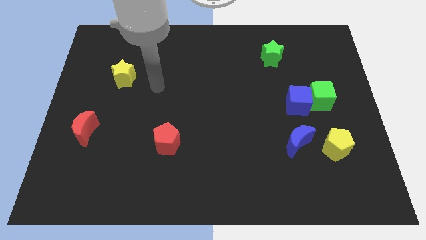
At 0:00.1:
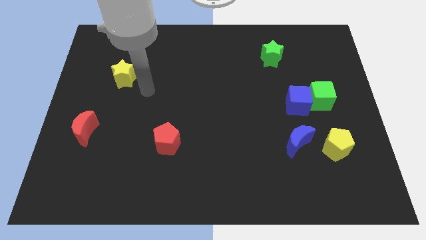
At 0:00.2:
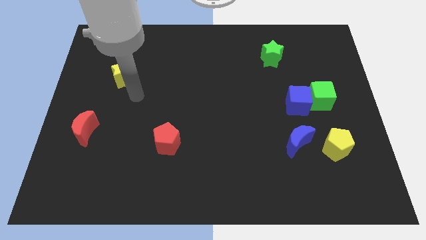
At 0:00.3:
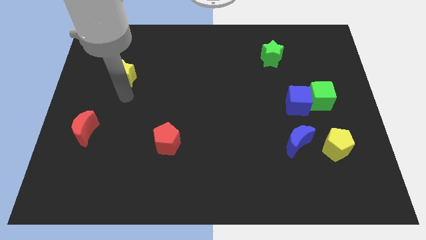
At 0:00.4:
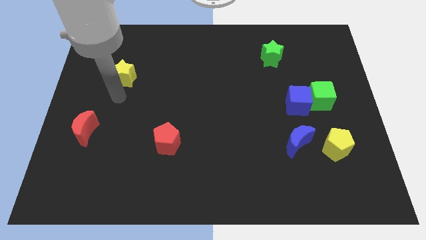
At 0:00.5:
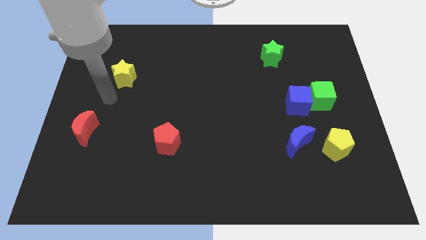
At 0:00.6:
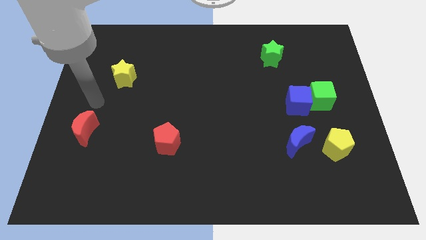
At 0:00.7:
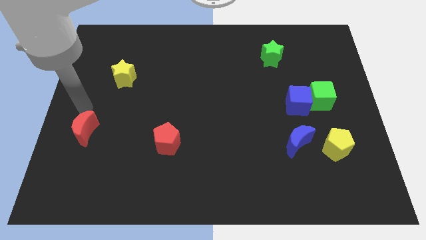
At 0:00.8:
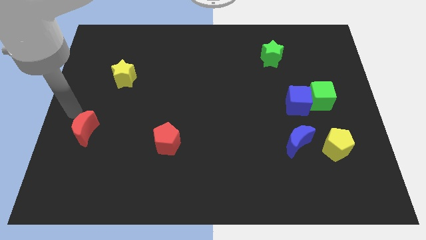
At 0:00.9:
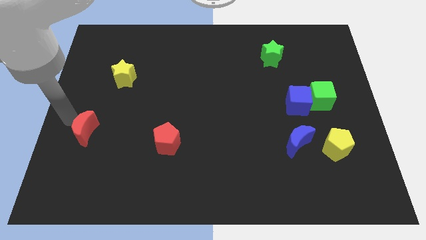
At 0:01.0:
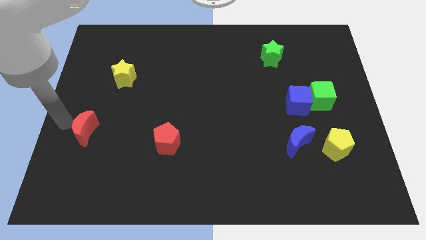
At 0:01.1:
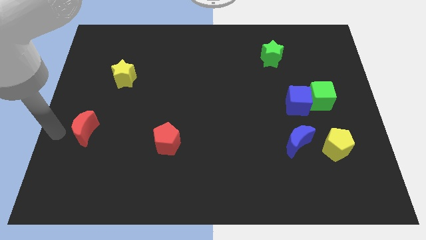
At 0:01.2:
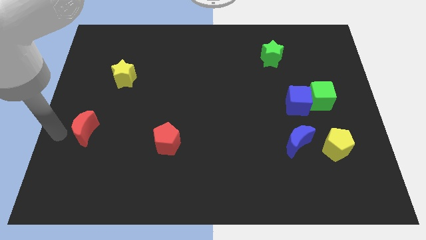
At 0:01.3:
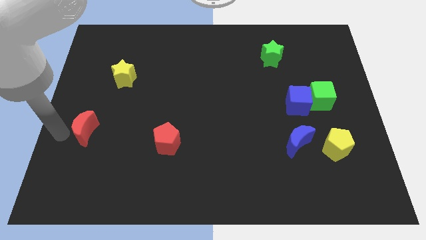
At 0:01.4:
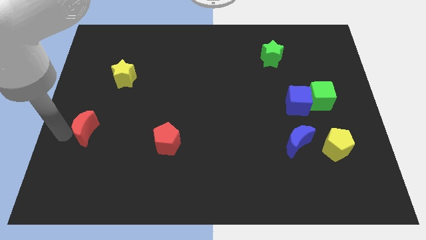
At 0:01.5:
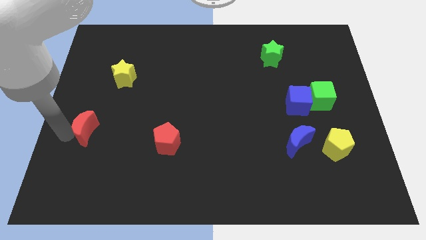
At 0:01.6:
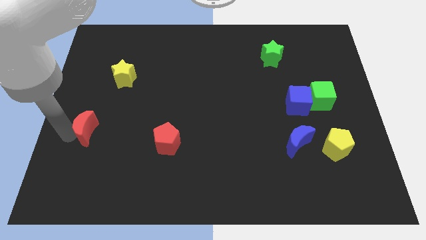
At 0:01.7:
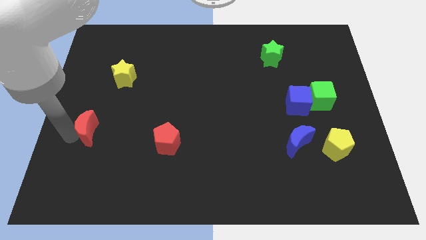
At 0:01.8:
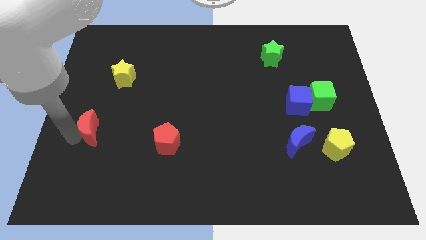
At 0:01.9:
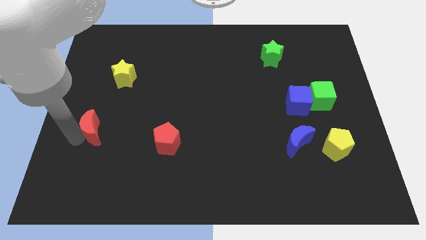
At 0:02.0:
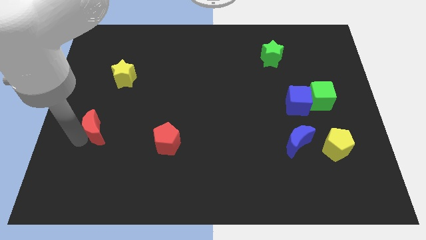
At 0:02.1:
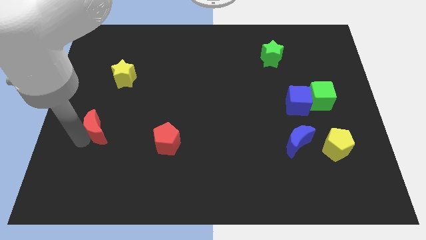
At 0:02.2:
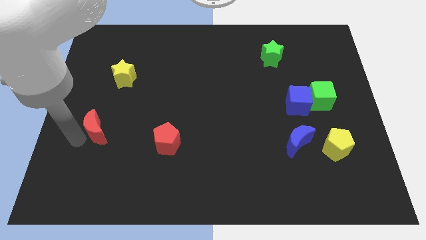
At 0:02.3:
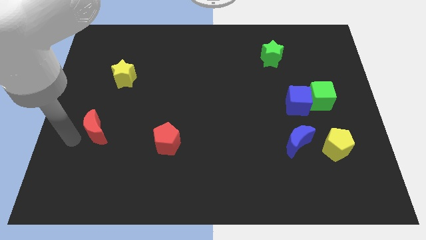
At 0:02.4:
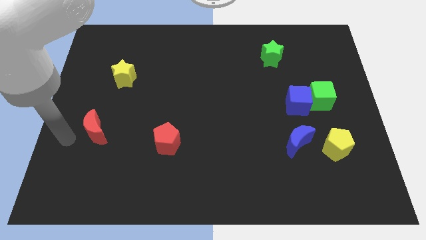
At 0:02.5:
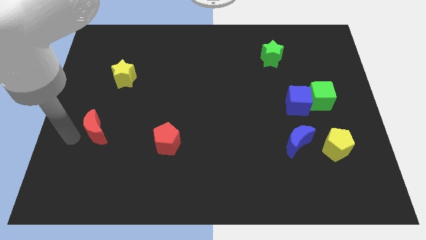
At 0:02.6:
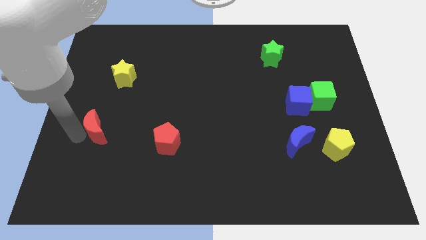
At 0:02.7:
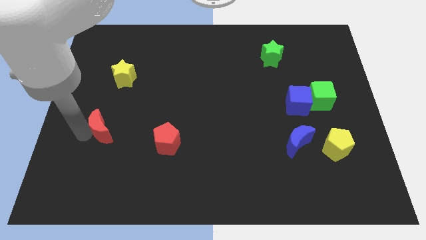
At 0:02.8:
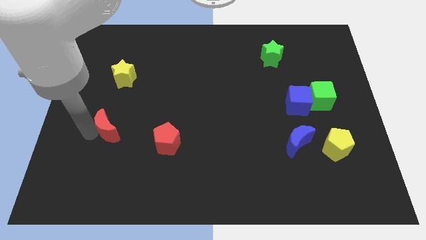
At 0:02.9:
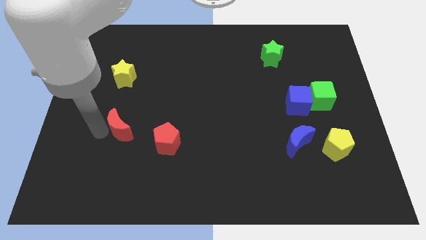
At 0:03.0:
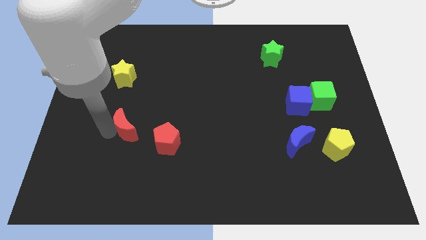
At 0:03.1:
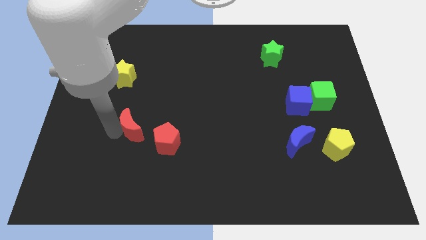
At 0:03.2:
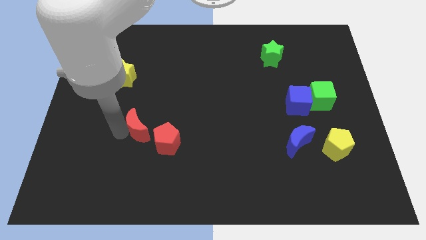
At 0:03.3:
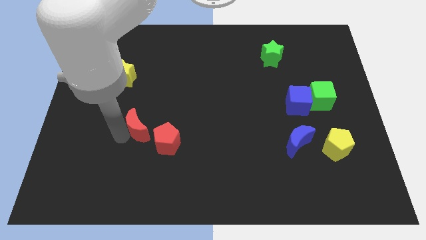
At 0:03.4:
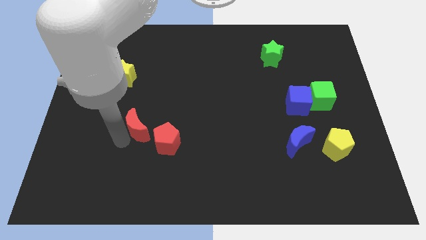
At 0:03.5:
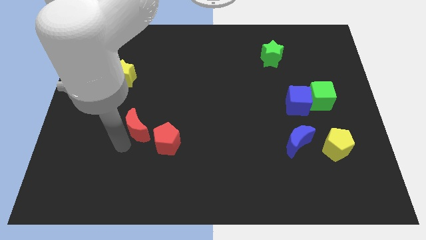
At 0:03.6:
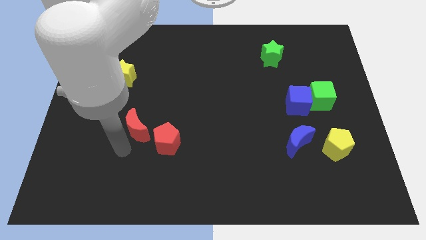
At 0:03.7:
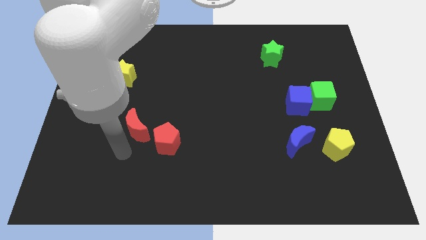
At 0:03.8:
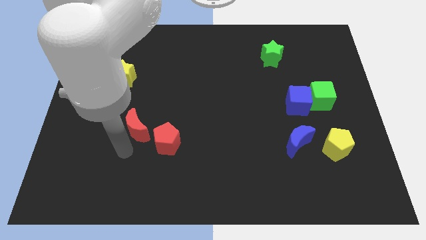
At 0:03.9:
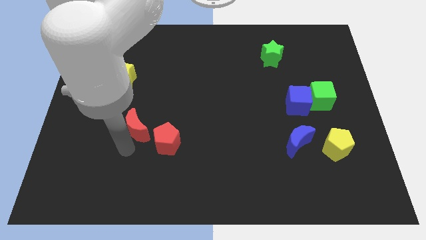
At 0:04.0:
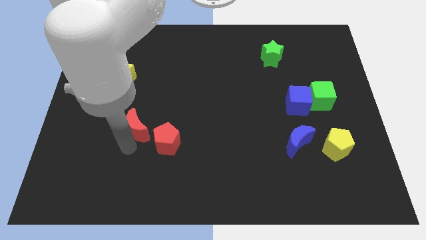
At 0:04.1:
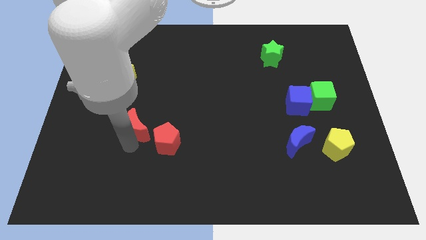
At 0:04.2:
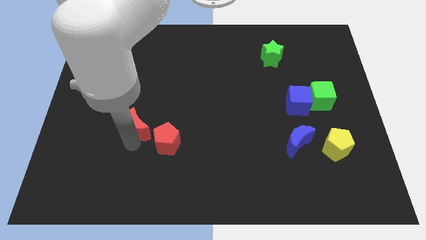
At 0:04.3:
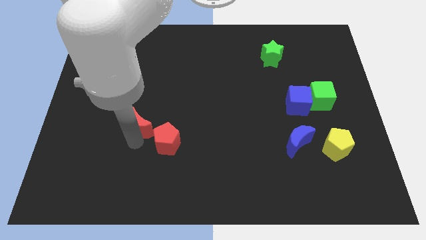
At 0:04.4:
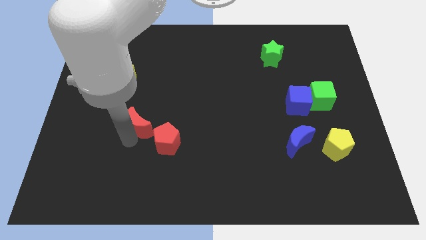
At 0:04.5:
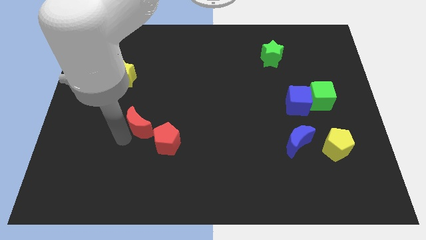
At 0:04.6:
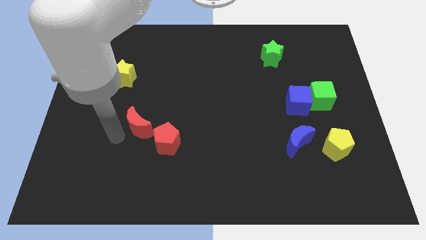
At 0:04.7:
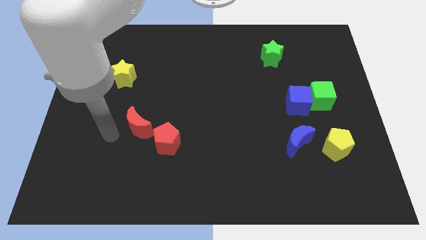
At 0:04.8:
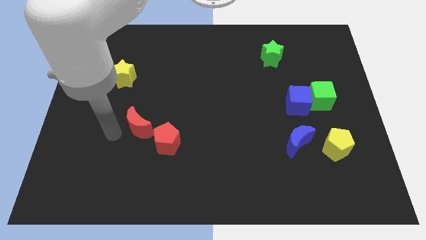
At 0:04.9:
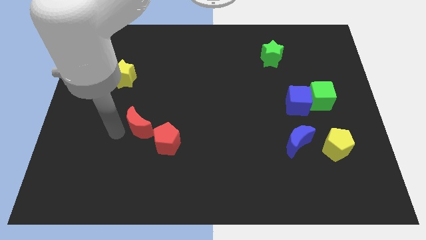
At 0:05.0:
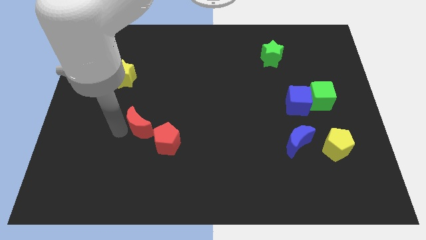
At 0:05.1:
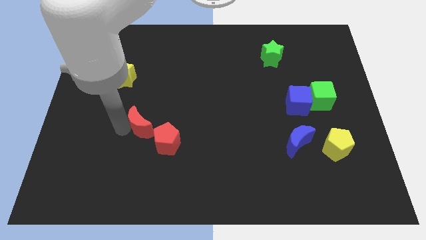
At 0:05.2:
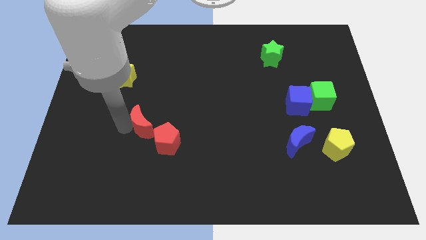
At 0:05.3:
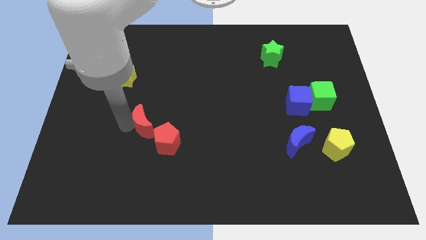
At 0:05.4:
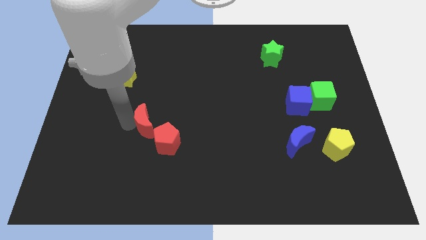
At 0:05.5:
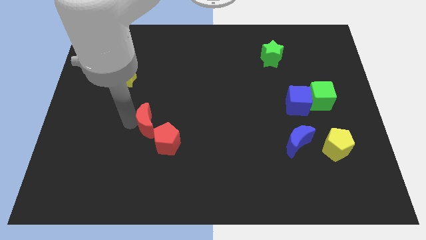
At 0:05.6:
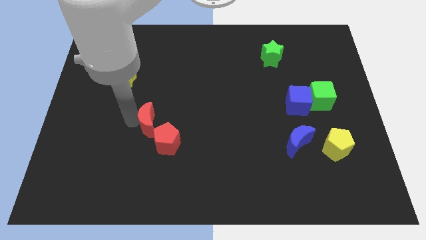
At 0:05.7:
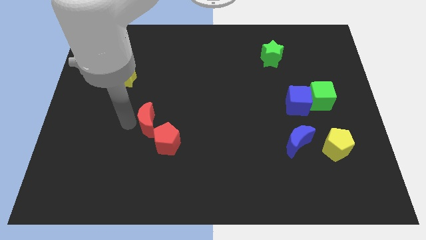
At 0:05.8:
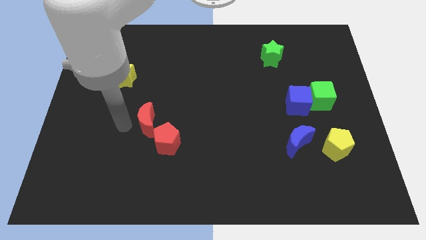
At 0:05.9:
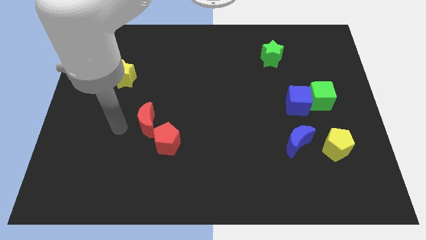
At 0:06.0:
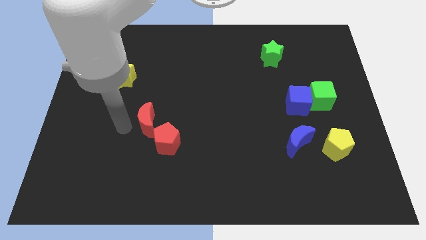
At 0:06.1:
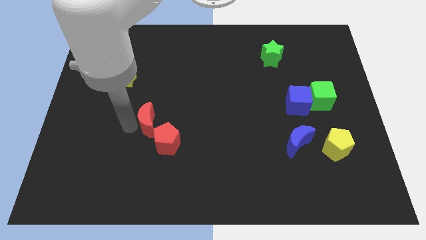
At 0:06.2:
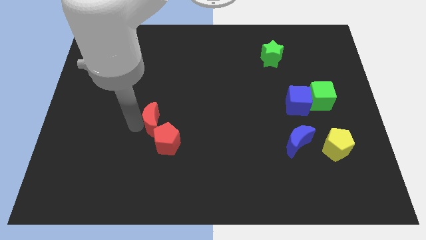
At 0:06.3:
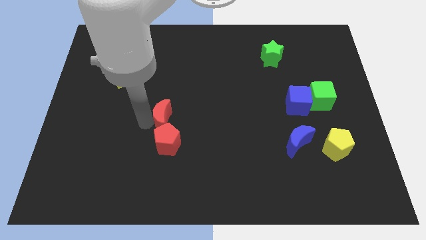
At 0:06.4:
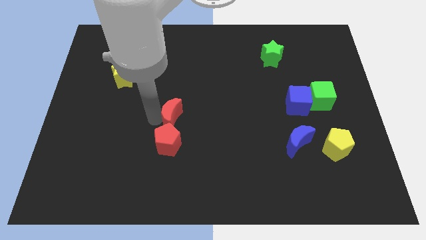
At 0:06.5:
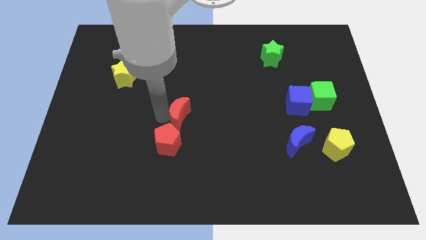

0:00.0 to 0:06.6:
push the red moon to the right

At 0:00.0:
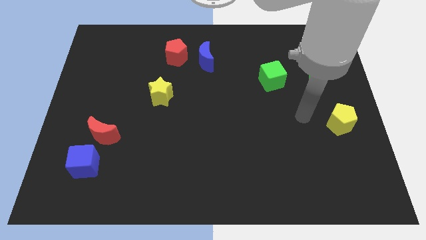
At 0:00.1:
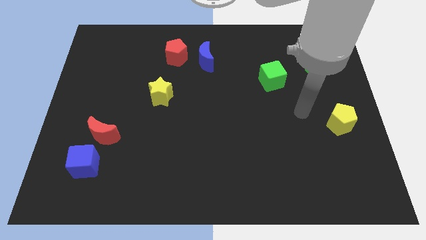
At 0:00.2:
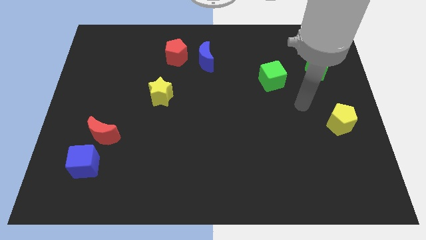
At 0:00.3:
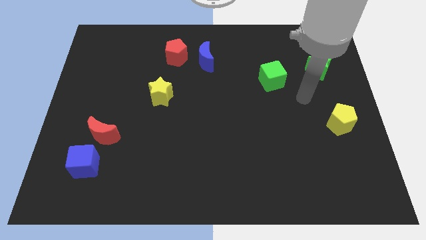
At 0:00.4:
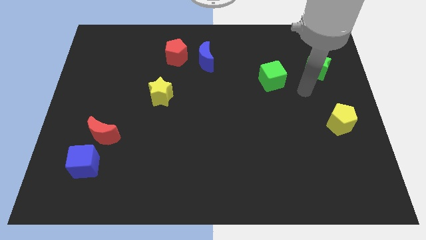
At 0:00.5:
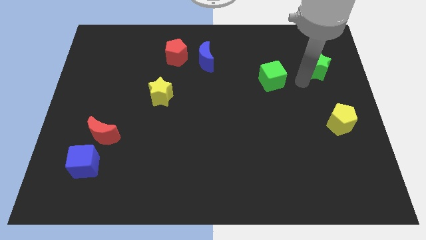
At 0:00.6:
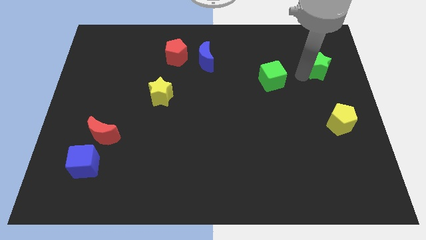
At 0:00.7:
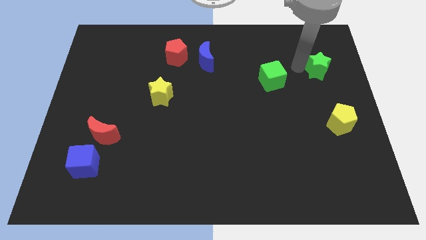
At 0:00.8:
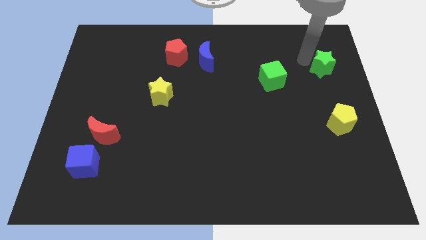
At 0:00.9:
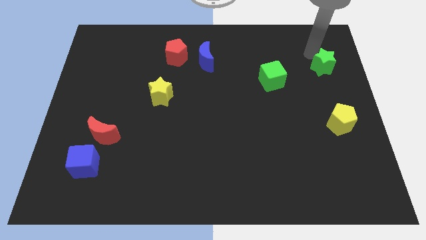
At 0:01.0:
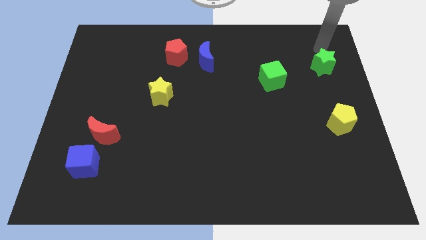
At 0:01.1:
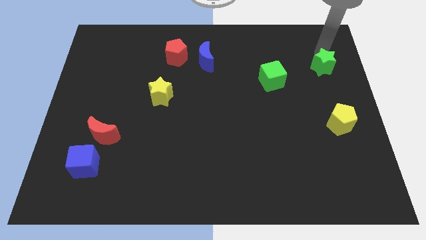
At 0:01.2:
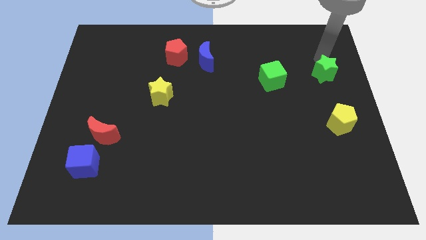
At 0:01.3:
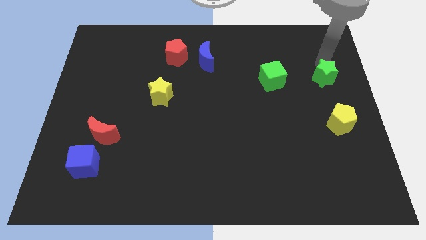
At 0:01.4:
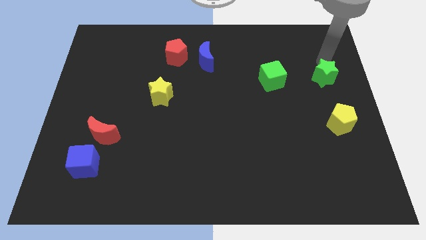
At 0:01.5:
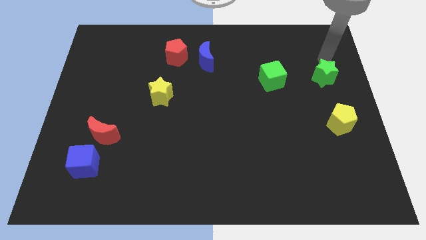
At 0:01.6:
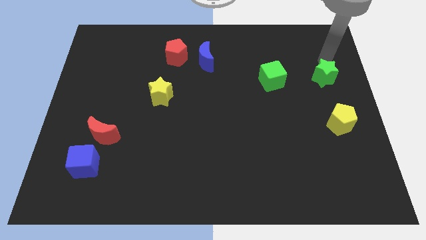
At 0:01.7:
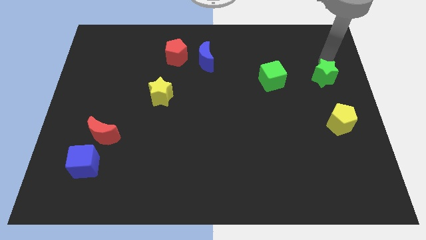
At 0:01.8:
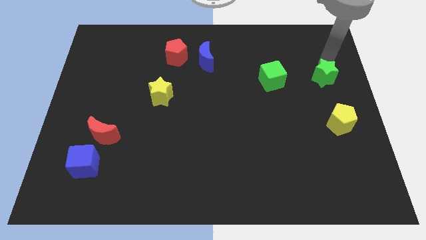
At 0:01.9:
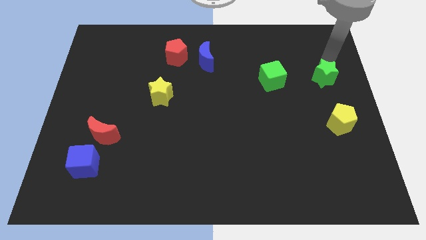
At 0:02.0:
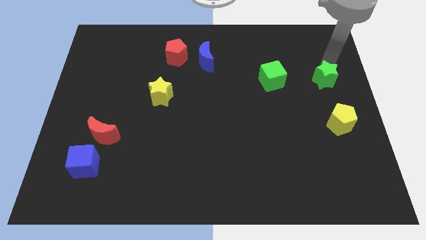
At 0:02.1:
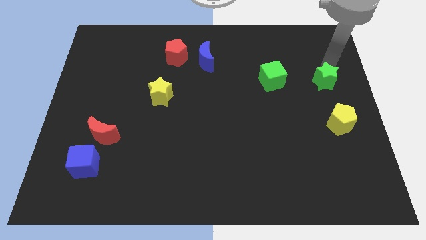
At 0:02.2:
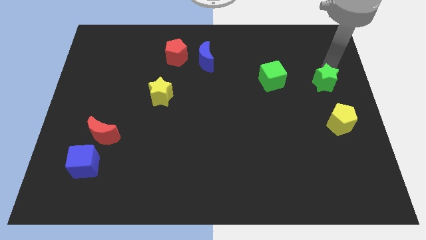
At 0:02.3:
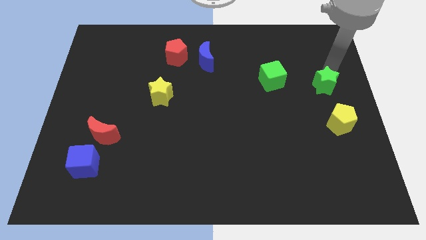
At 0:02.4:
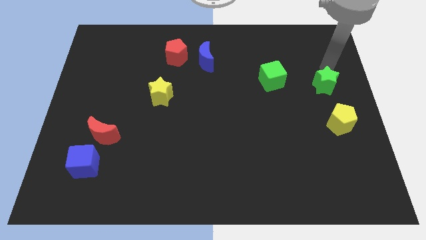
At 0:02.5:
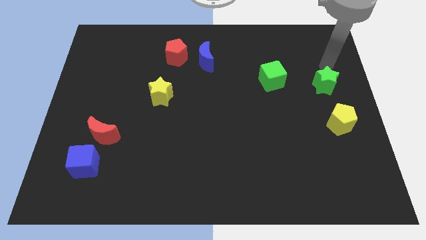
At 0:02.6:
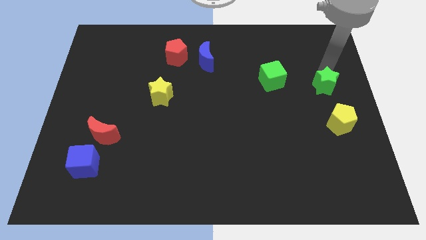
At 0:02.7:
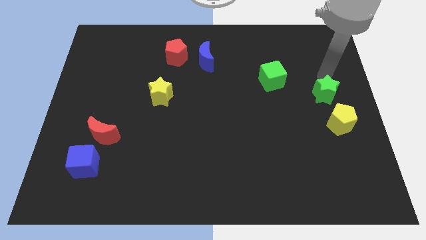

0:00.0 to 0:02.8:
slide the green star a little bit down
